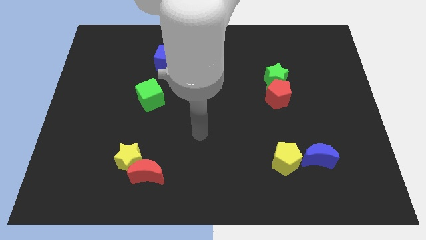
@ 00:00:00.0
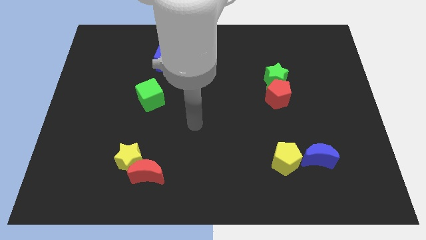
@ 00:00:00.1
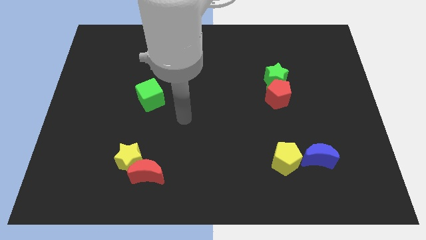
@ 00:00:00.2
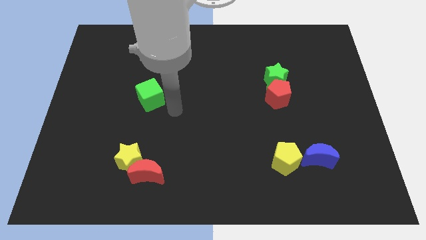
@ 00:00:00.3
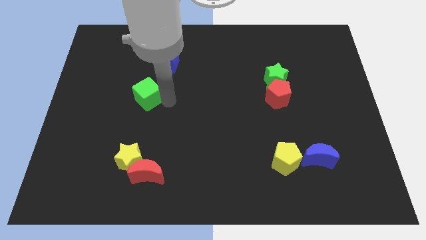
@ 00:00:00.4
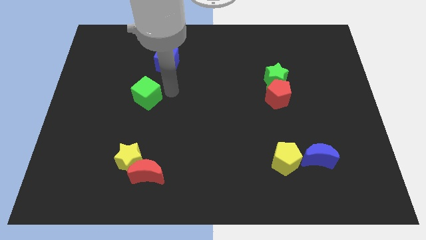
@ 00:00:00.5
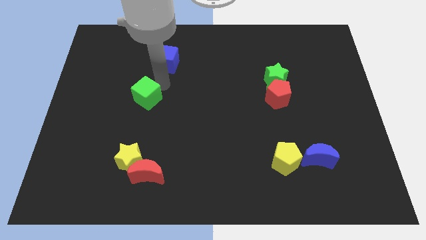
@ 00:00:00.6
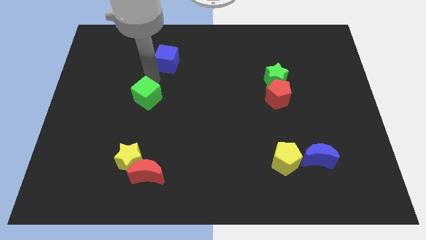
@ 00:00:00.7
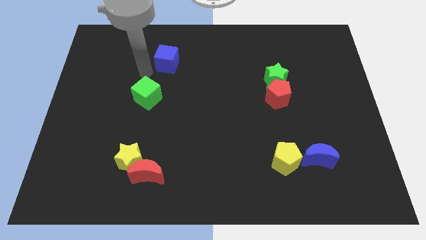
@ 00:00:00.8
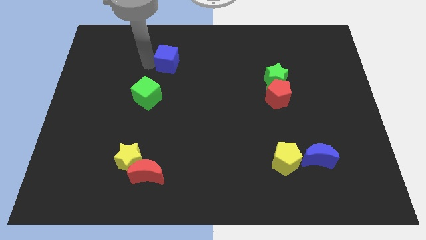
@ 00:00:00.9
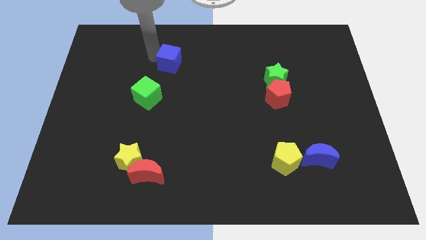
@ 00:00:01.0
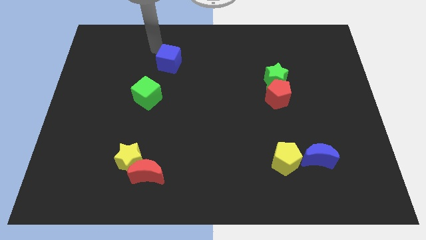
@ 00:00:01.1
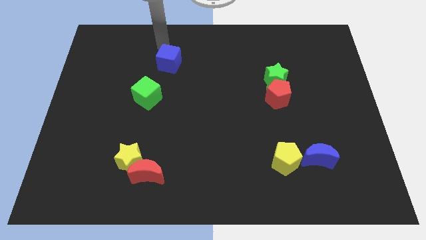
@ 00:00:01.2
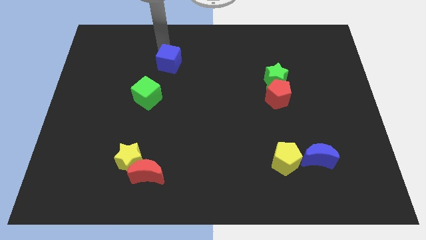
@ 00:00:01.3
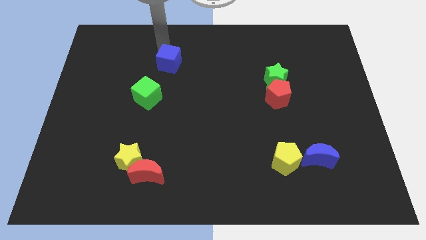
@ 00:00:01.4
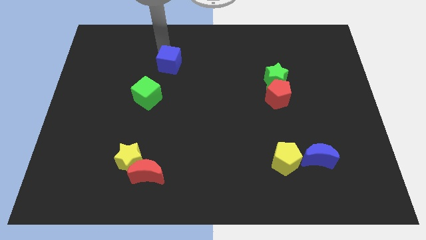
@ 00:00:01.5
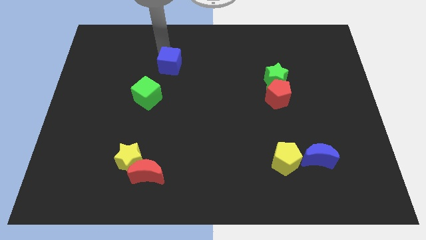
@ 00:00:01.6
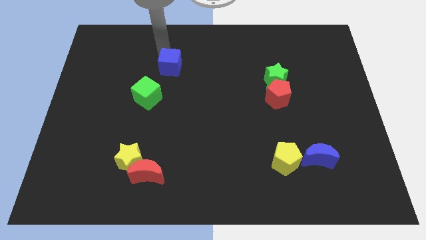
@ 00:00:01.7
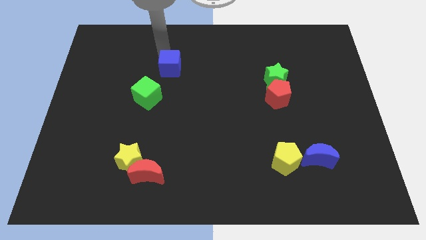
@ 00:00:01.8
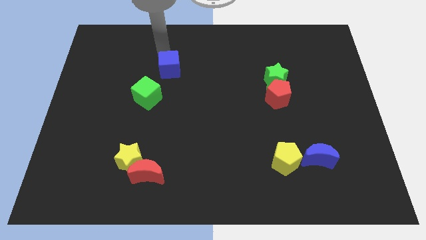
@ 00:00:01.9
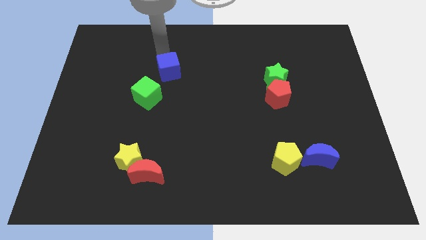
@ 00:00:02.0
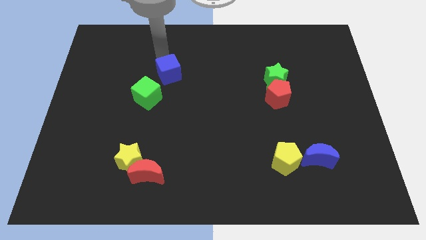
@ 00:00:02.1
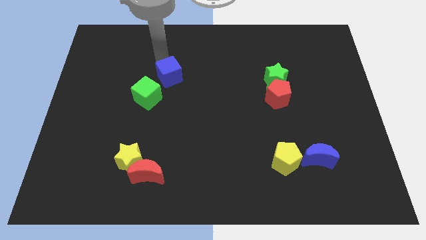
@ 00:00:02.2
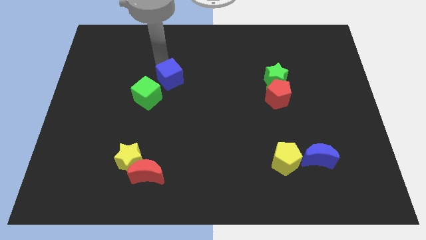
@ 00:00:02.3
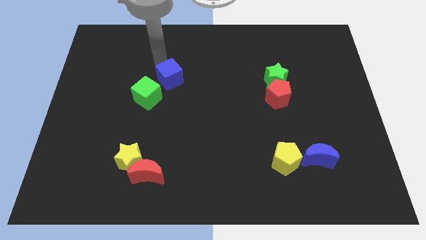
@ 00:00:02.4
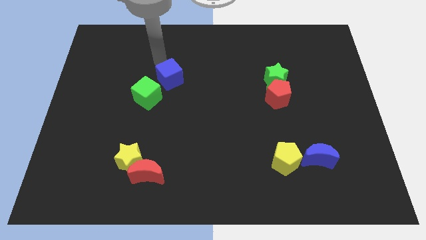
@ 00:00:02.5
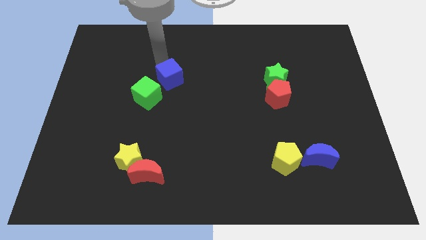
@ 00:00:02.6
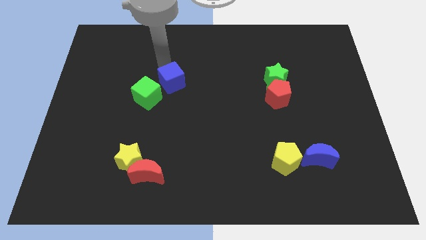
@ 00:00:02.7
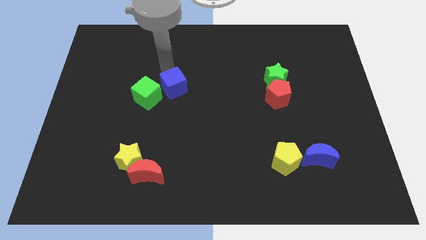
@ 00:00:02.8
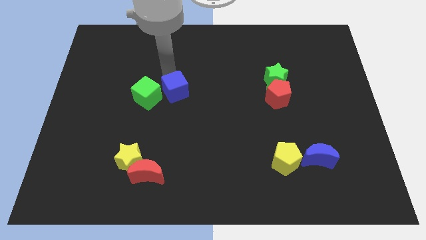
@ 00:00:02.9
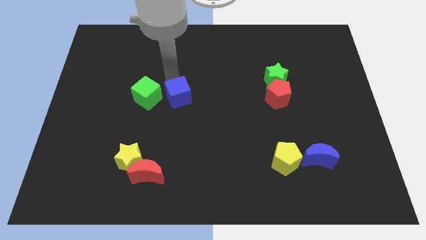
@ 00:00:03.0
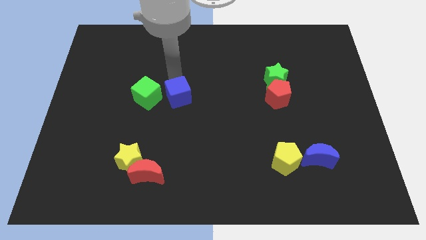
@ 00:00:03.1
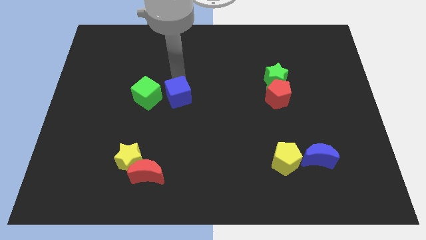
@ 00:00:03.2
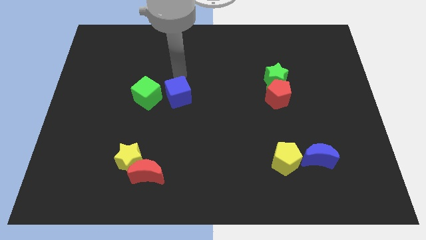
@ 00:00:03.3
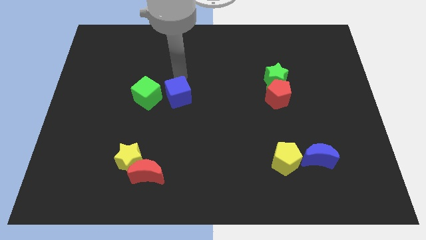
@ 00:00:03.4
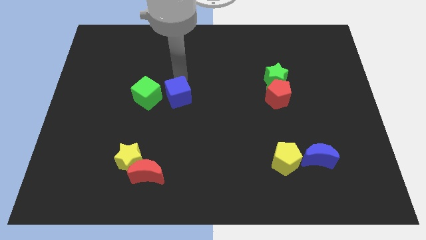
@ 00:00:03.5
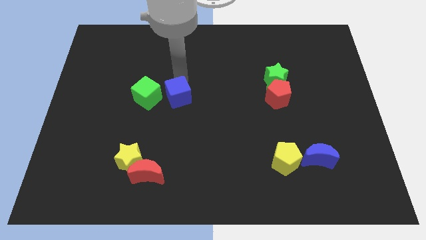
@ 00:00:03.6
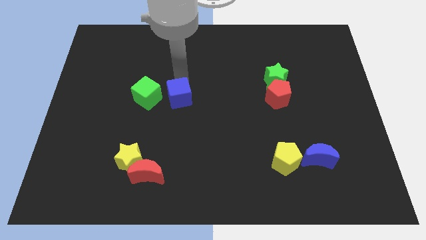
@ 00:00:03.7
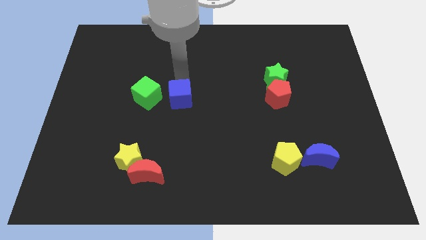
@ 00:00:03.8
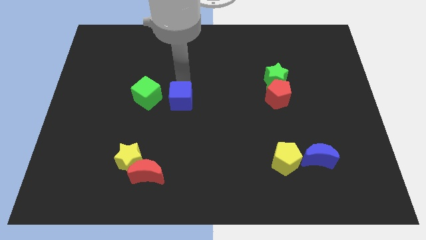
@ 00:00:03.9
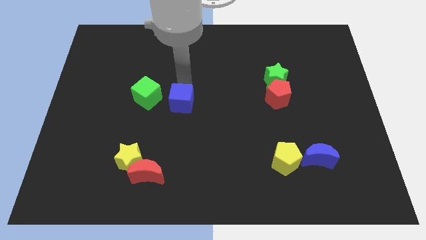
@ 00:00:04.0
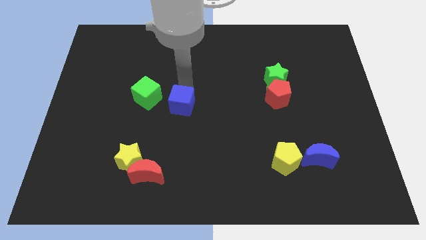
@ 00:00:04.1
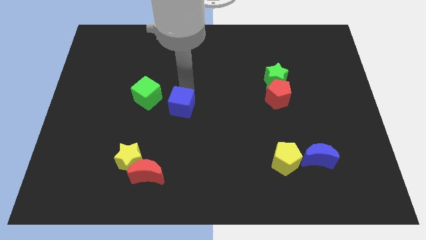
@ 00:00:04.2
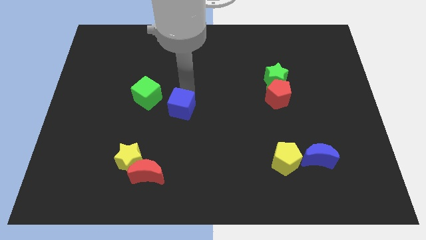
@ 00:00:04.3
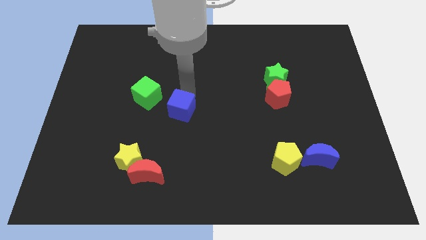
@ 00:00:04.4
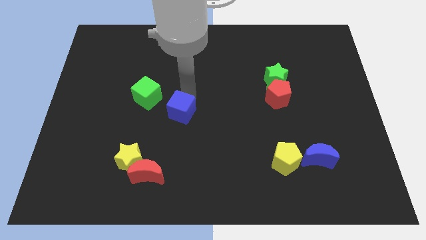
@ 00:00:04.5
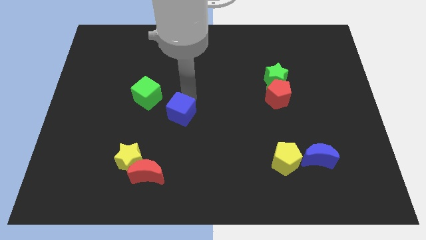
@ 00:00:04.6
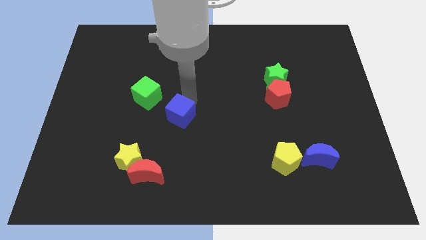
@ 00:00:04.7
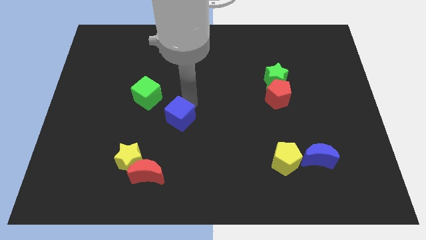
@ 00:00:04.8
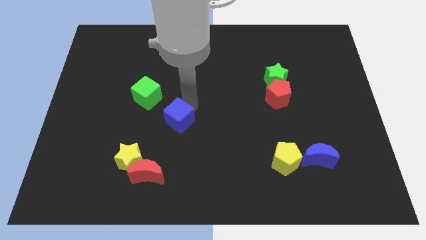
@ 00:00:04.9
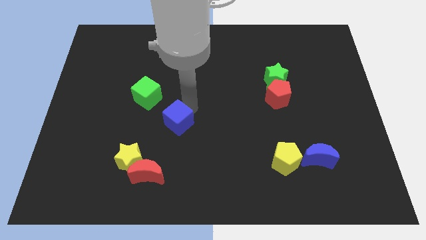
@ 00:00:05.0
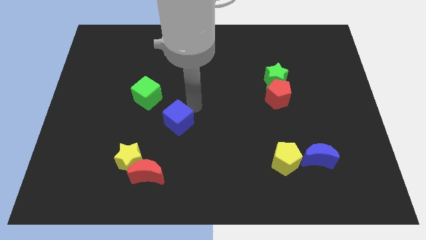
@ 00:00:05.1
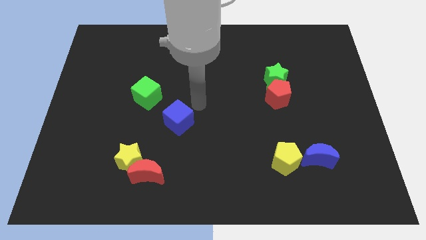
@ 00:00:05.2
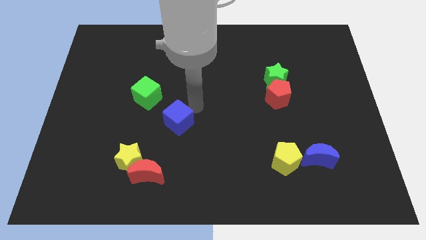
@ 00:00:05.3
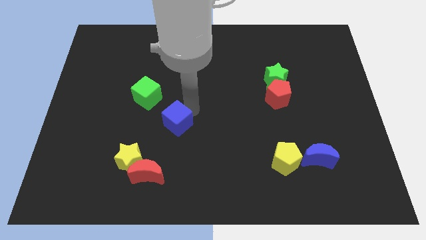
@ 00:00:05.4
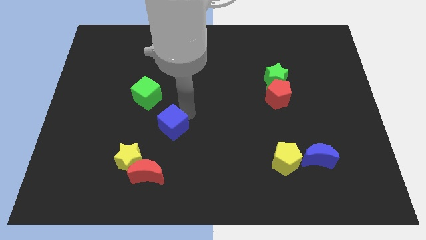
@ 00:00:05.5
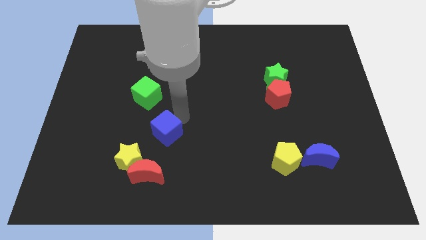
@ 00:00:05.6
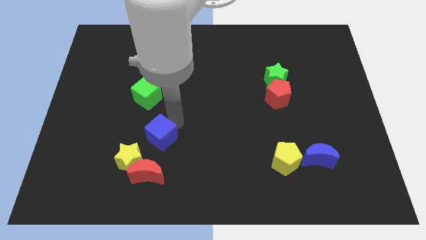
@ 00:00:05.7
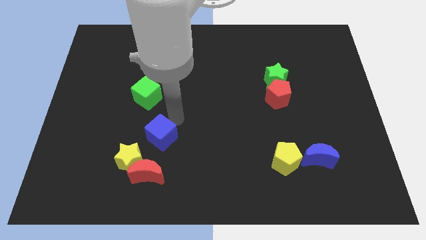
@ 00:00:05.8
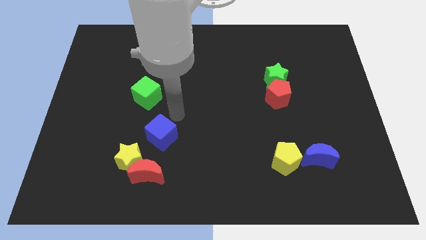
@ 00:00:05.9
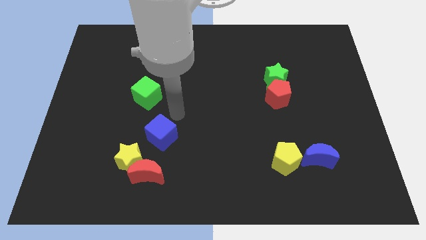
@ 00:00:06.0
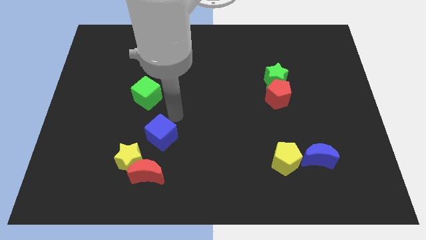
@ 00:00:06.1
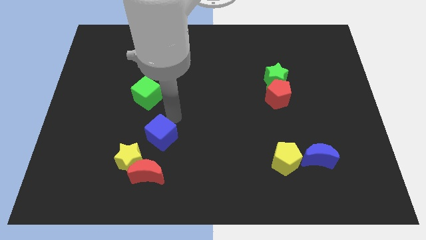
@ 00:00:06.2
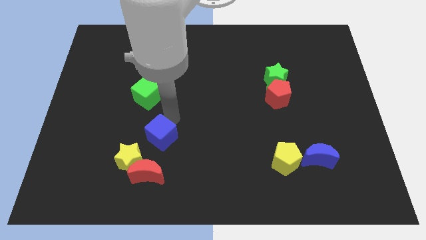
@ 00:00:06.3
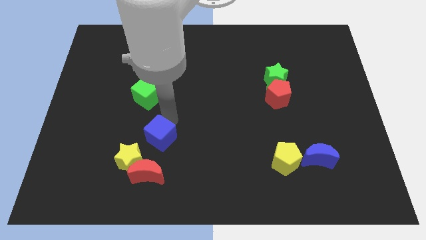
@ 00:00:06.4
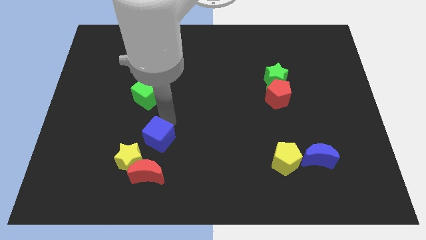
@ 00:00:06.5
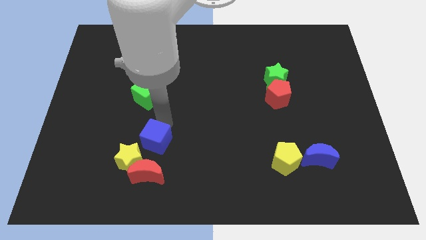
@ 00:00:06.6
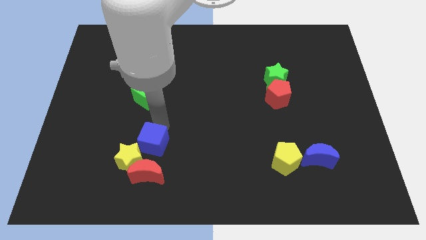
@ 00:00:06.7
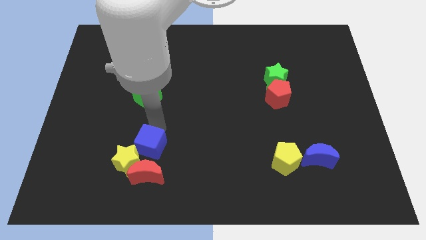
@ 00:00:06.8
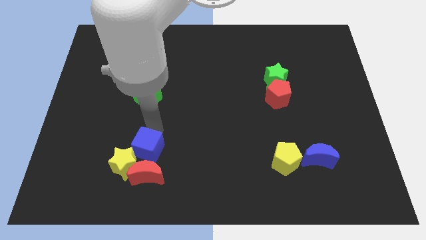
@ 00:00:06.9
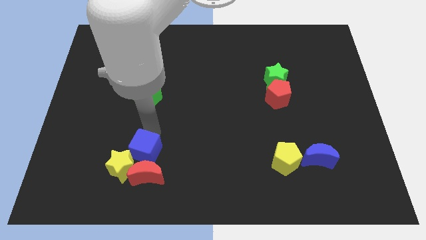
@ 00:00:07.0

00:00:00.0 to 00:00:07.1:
push the blue cube next to the red moon

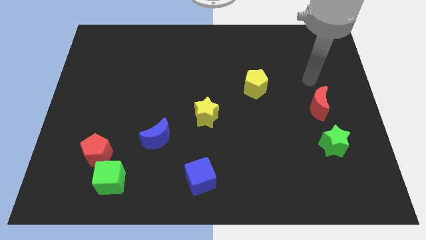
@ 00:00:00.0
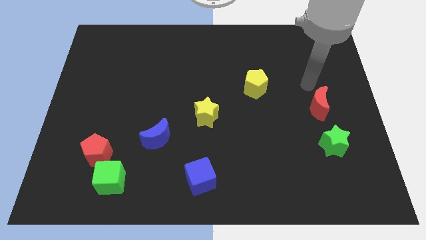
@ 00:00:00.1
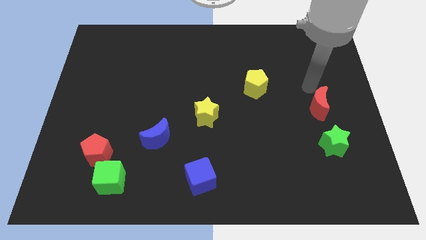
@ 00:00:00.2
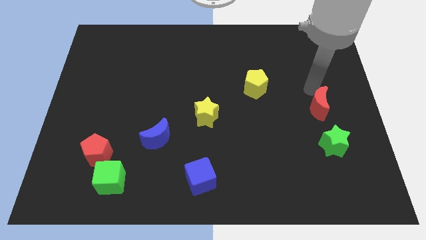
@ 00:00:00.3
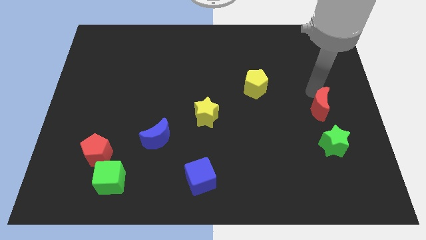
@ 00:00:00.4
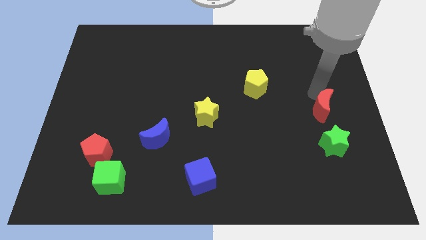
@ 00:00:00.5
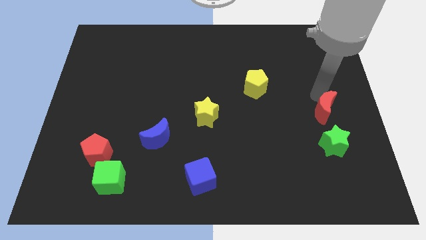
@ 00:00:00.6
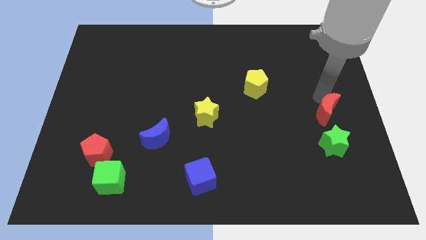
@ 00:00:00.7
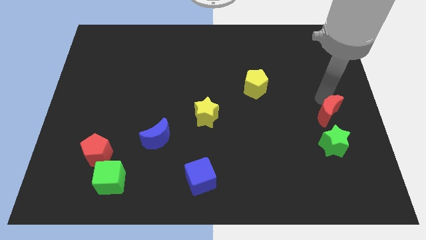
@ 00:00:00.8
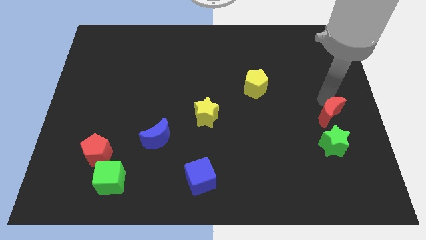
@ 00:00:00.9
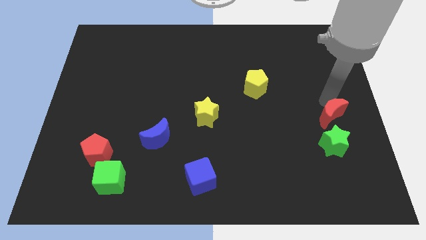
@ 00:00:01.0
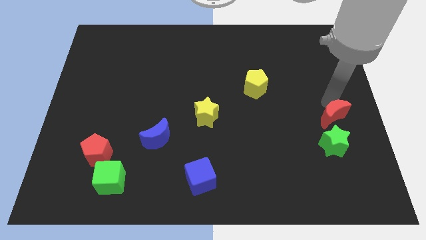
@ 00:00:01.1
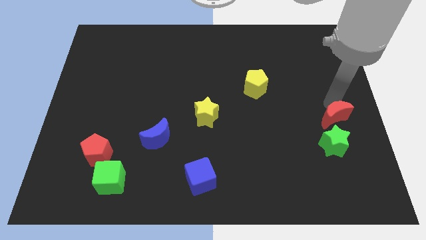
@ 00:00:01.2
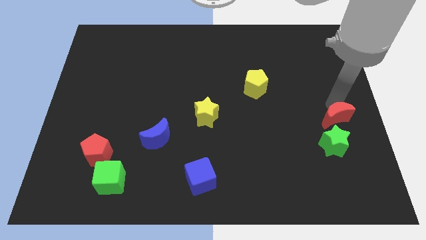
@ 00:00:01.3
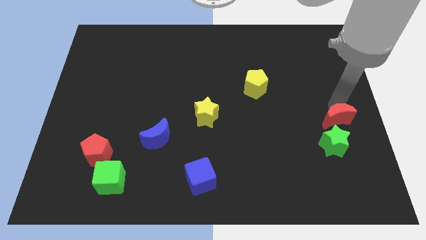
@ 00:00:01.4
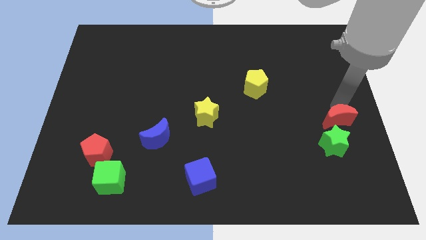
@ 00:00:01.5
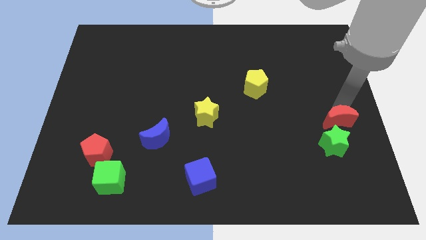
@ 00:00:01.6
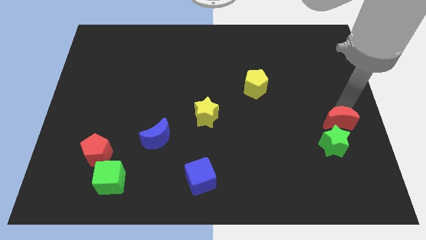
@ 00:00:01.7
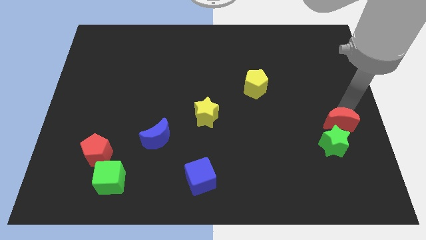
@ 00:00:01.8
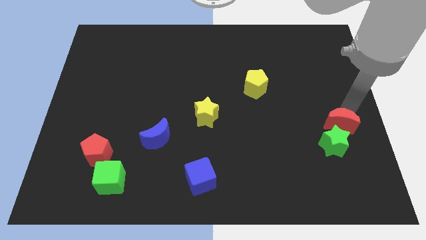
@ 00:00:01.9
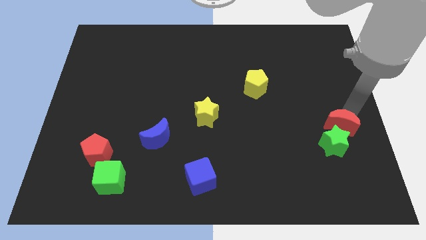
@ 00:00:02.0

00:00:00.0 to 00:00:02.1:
slide the red moon to the green star
